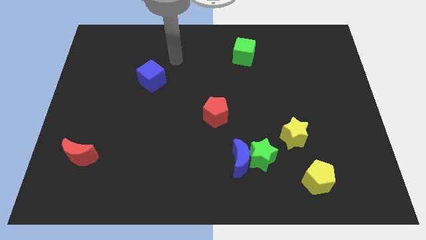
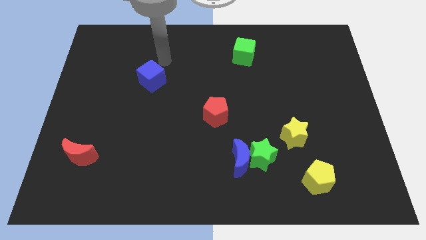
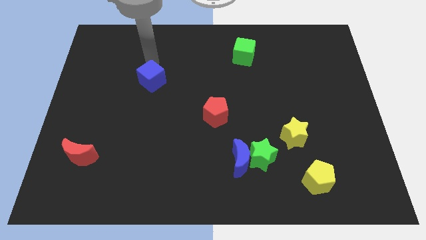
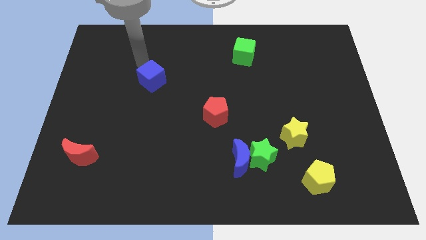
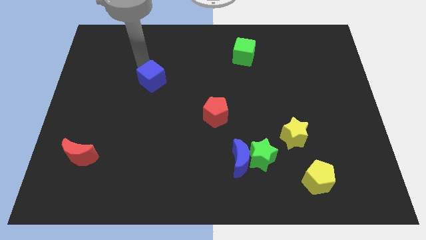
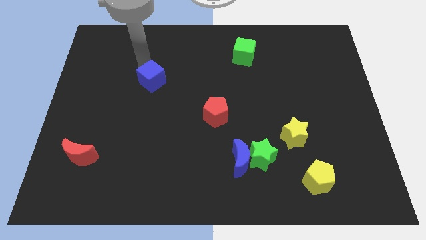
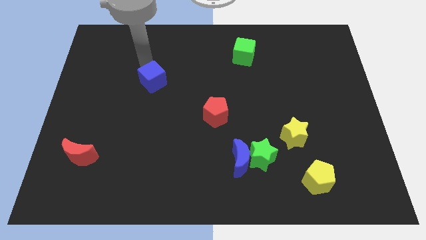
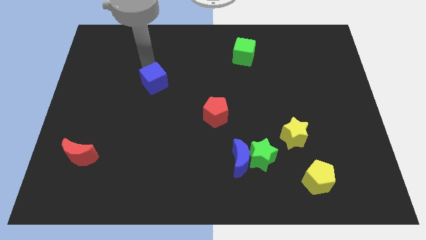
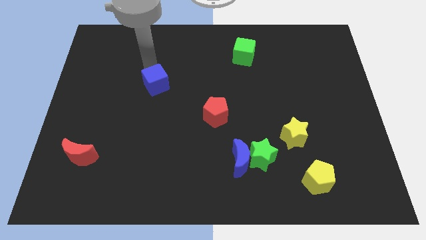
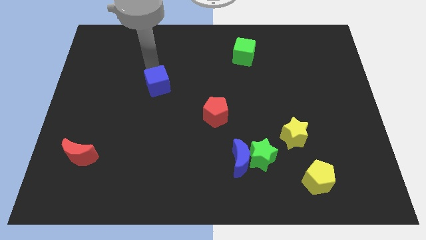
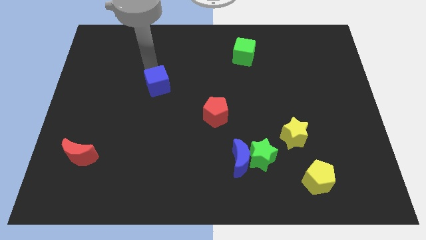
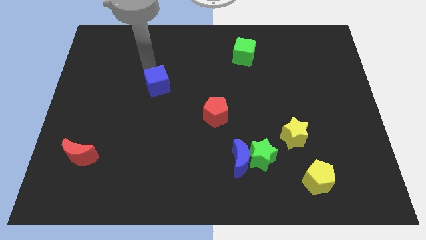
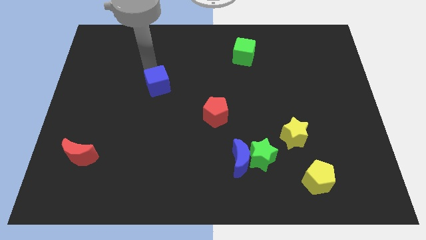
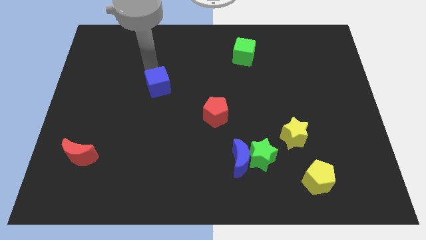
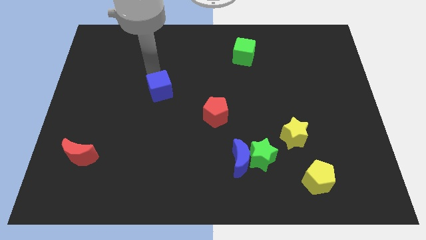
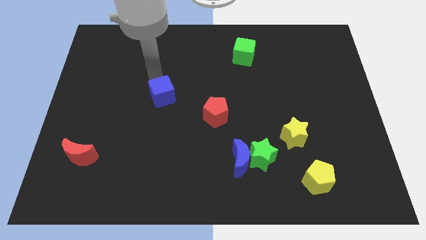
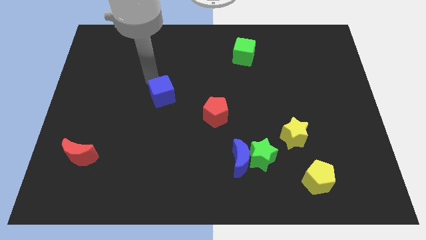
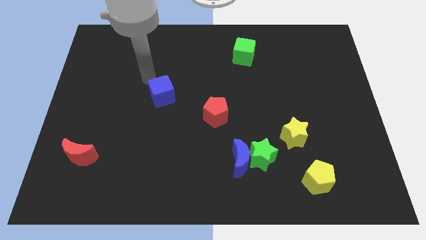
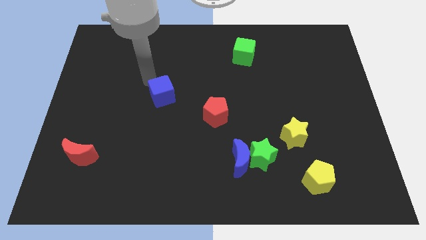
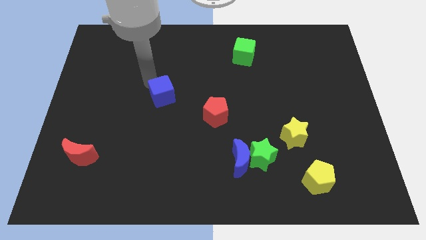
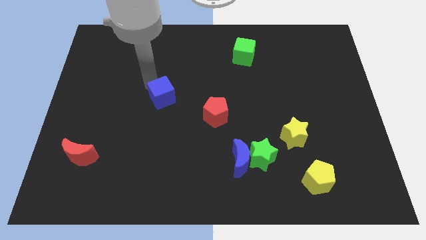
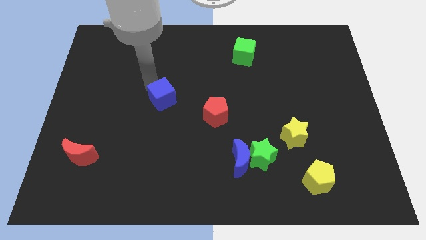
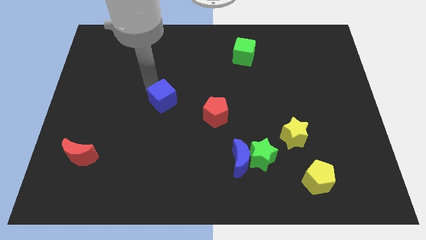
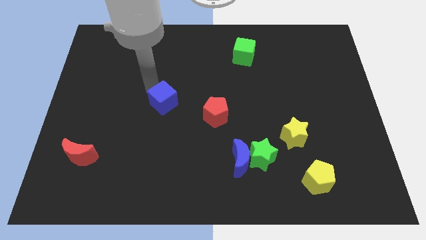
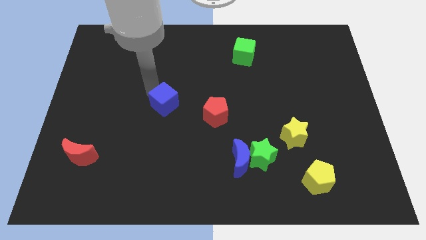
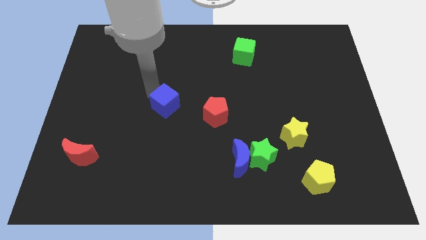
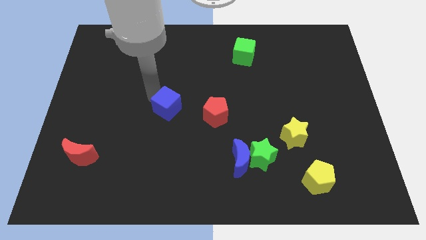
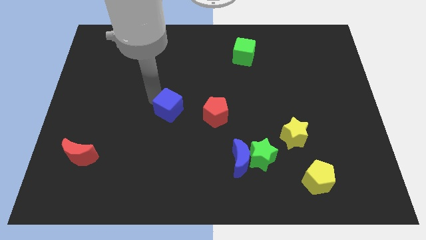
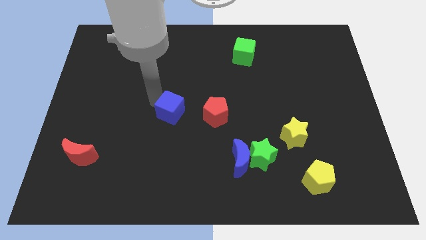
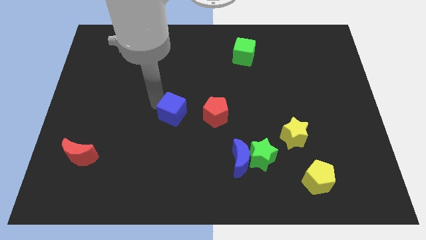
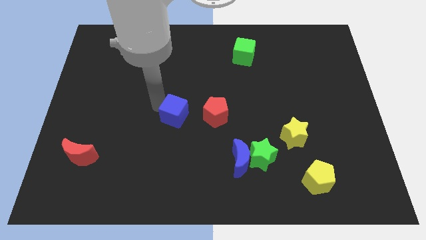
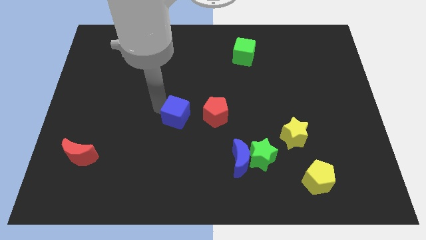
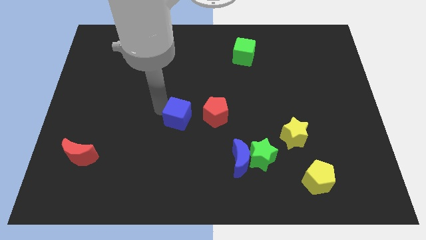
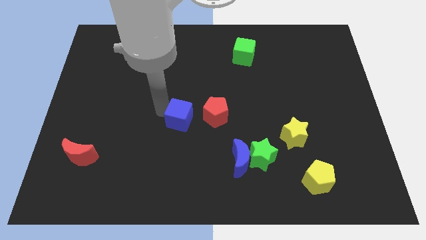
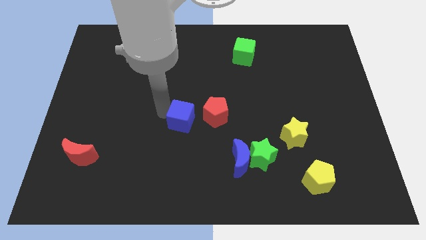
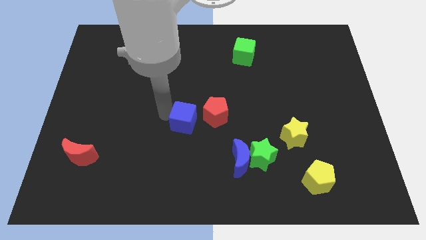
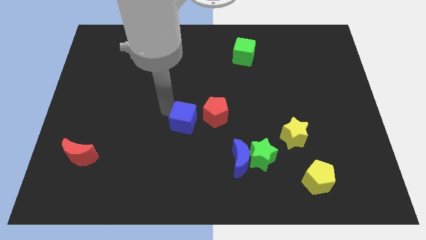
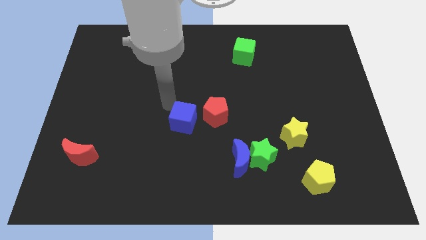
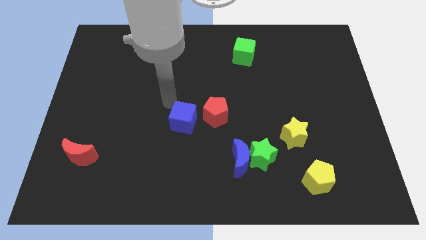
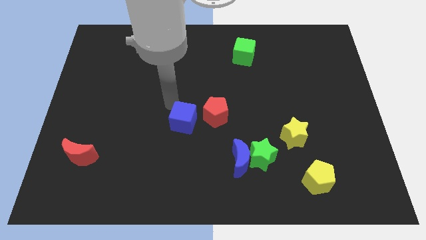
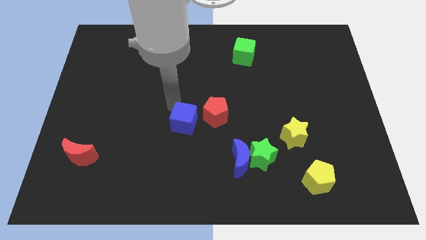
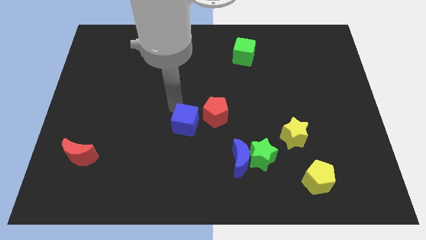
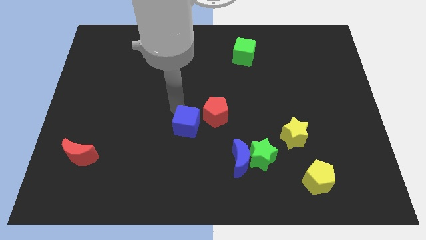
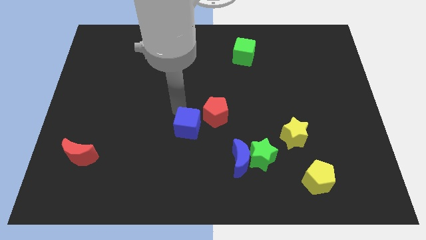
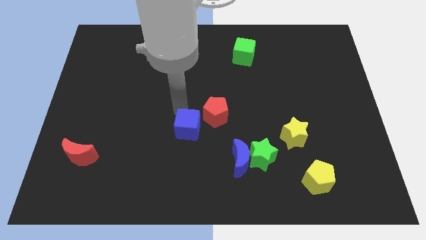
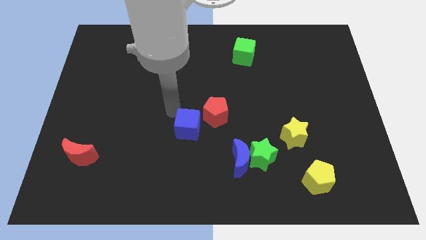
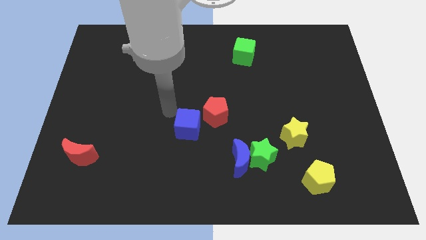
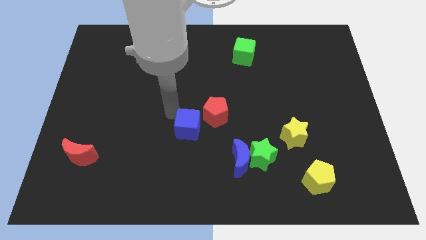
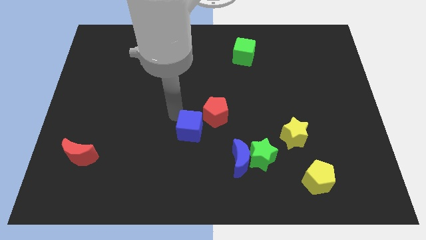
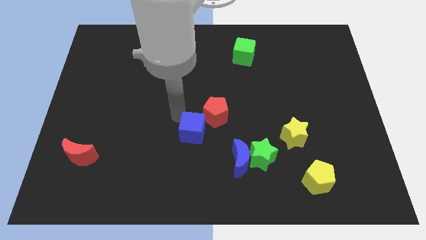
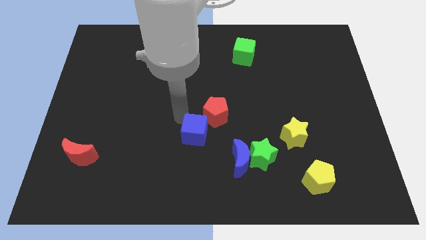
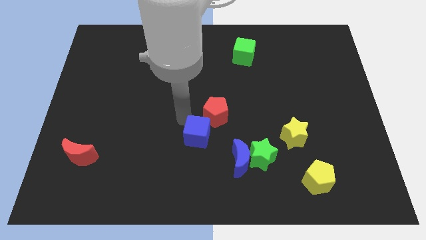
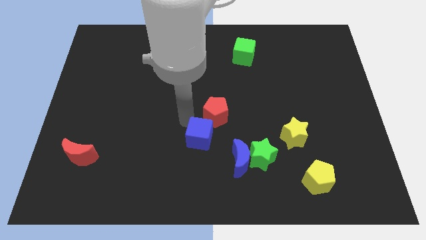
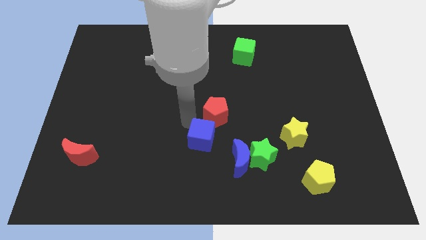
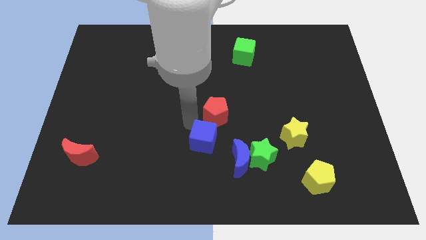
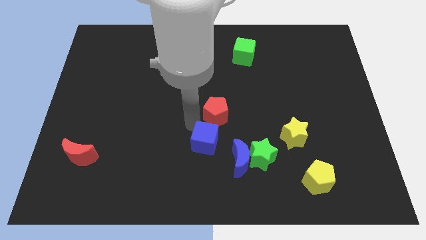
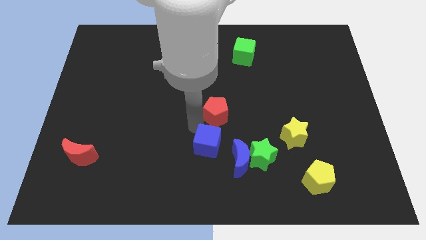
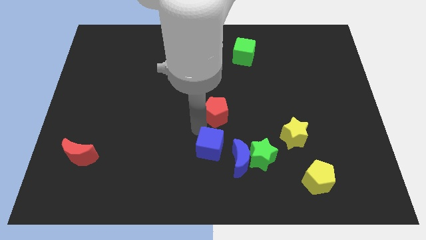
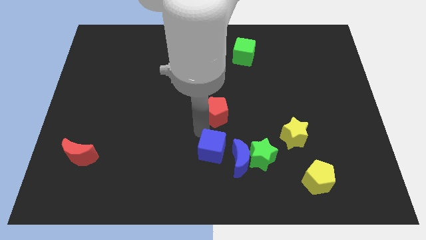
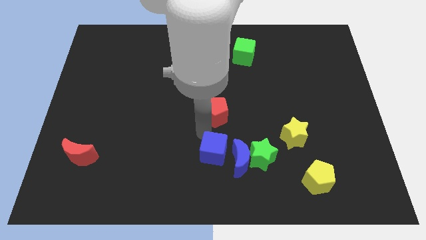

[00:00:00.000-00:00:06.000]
move the blue cube towards the blue moon

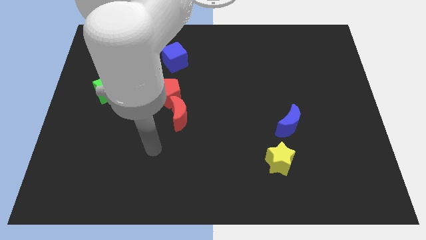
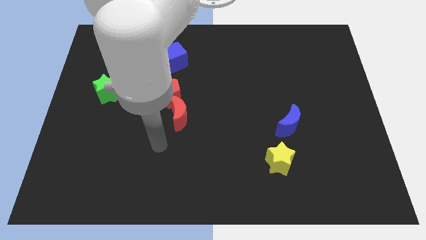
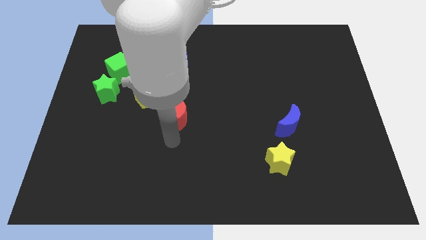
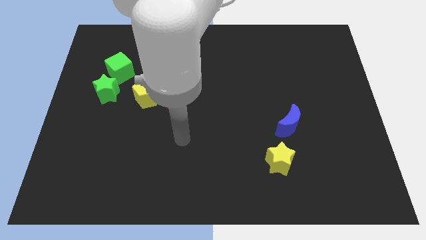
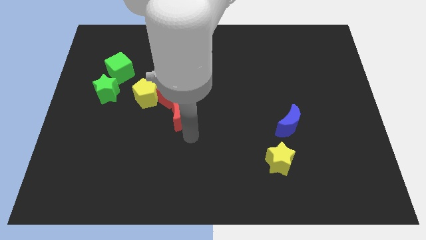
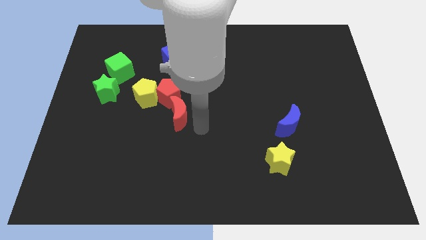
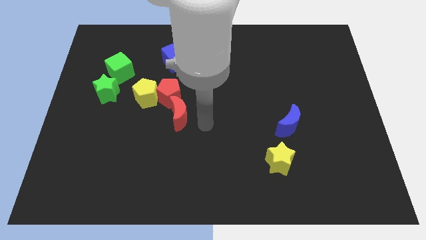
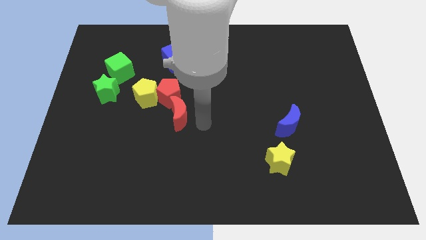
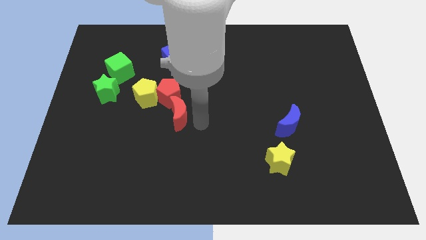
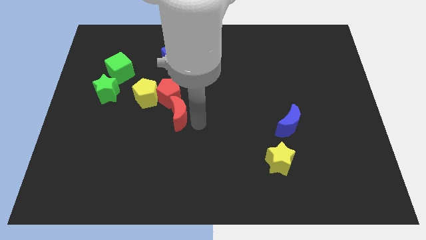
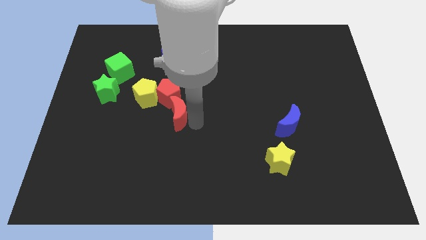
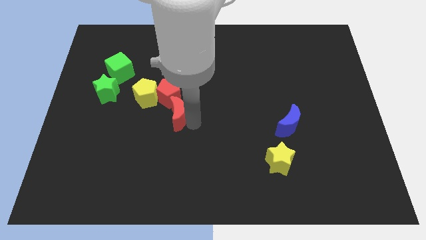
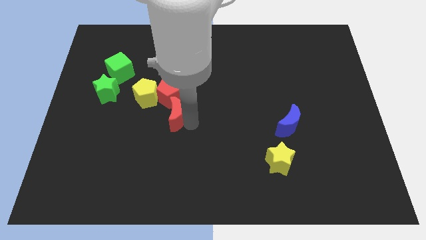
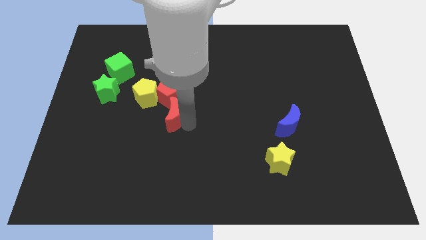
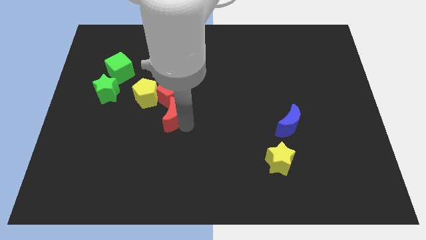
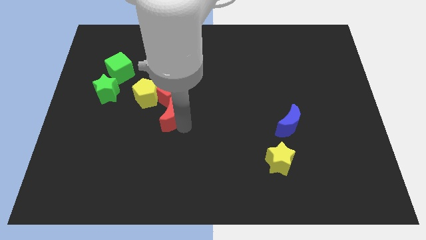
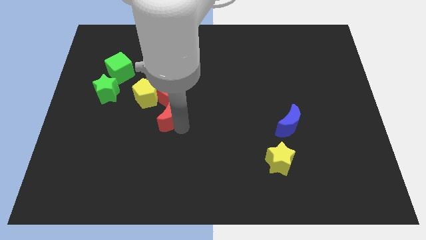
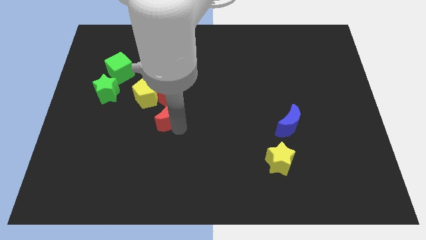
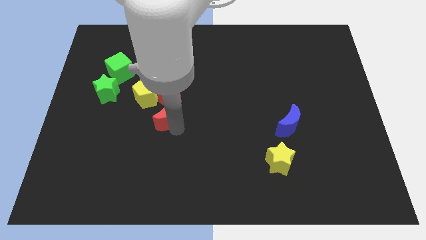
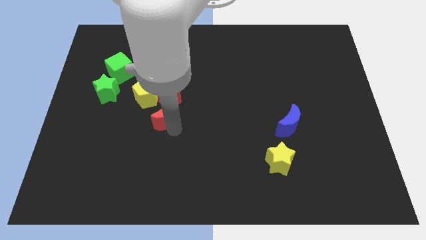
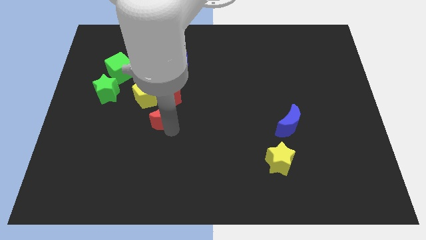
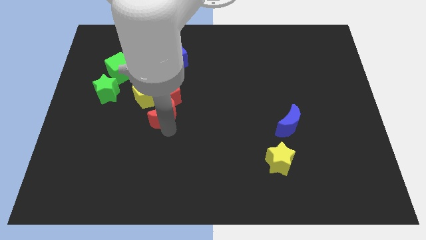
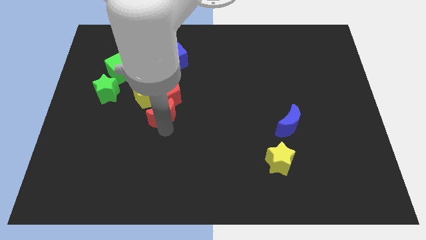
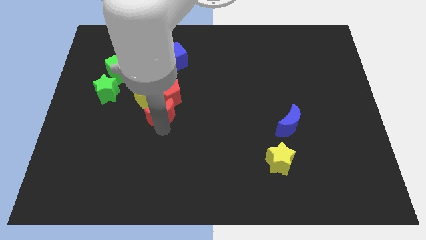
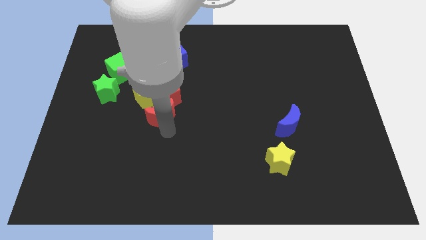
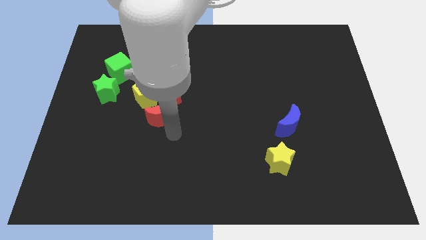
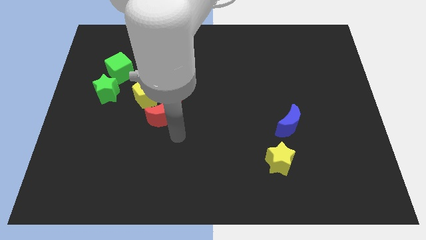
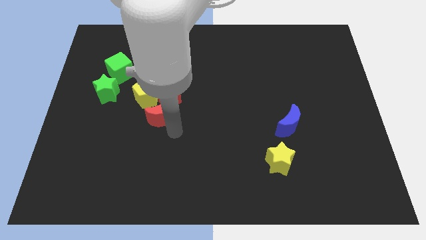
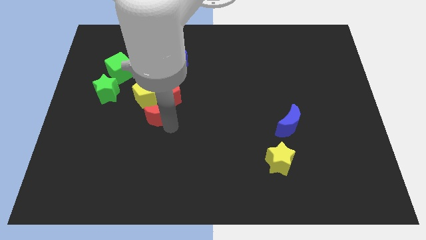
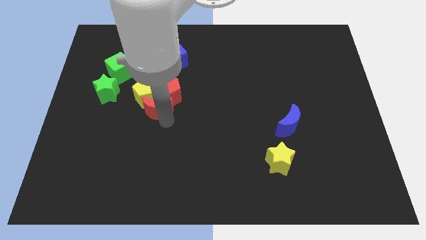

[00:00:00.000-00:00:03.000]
put the red moon close to the yellow pentagon
